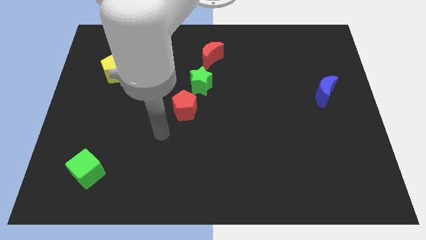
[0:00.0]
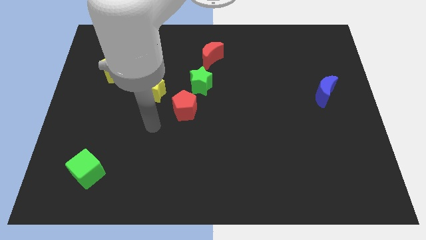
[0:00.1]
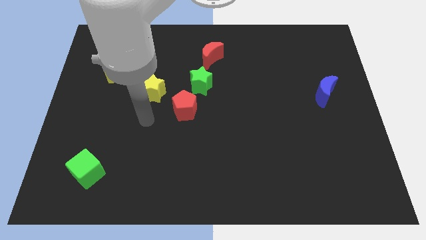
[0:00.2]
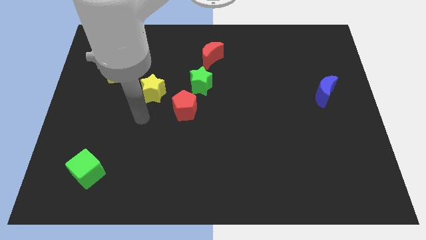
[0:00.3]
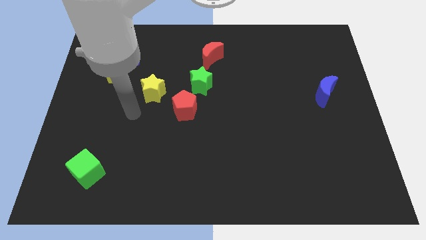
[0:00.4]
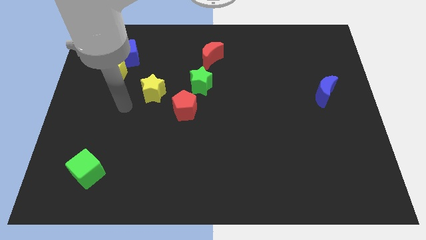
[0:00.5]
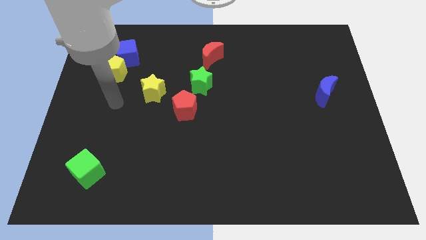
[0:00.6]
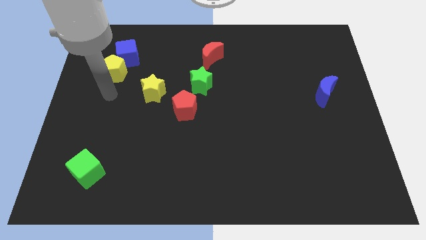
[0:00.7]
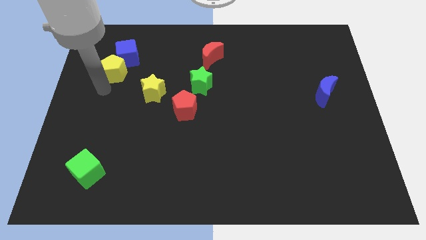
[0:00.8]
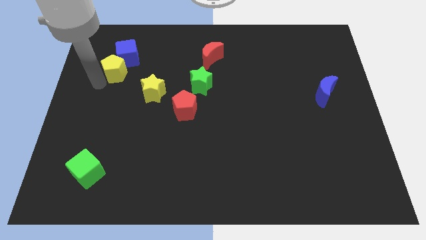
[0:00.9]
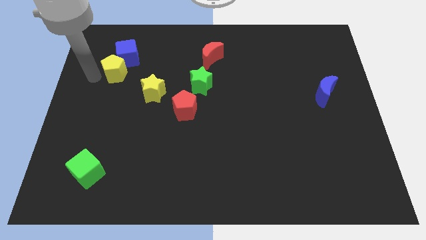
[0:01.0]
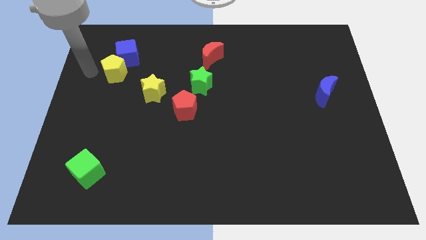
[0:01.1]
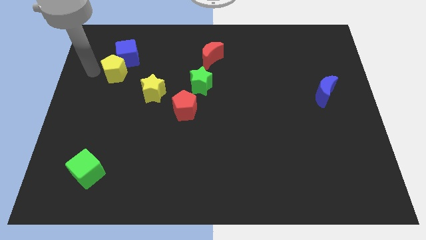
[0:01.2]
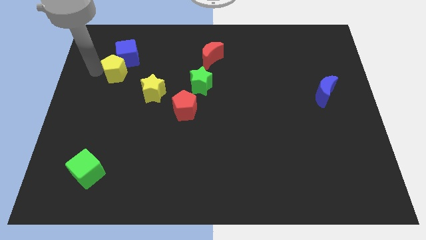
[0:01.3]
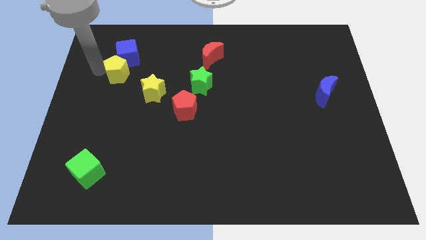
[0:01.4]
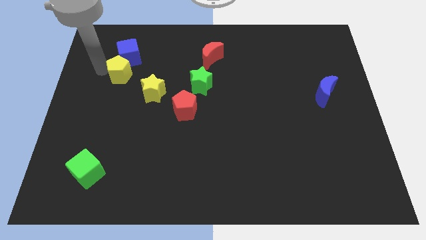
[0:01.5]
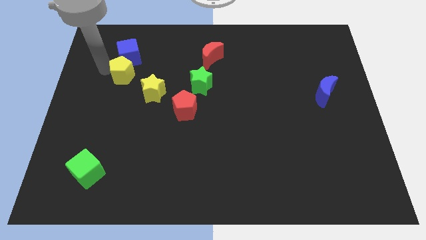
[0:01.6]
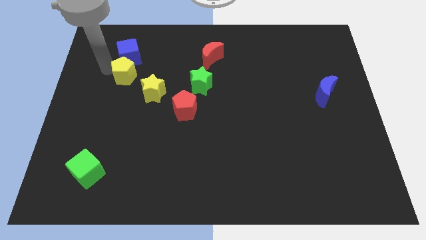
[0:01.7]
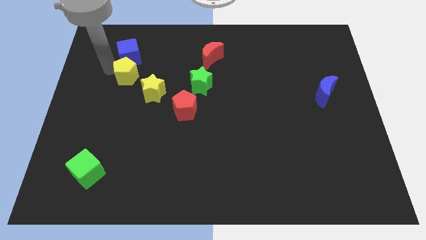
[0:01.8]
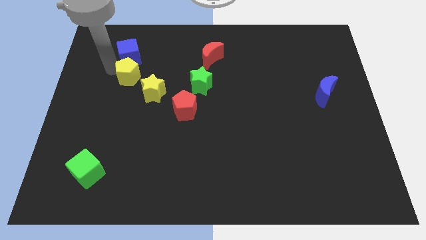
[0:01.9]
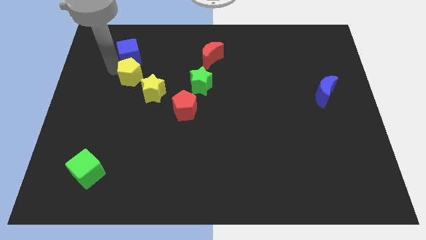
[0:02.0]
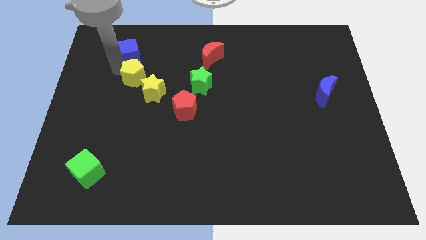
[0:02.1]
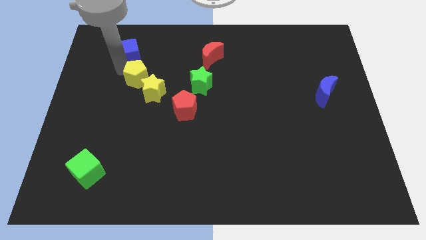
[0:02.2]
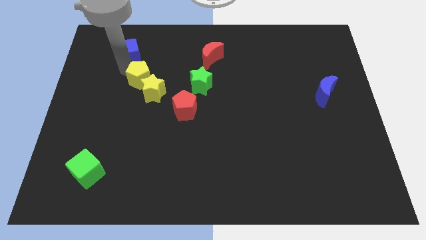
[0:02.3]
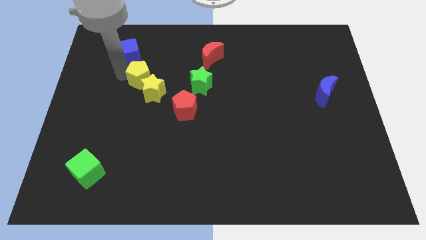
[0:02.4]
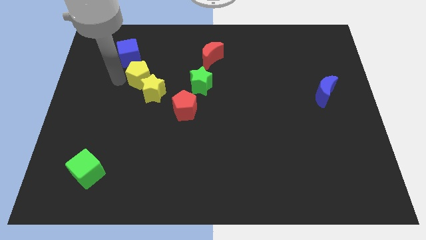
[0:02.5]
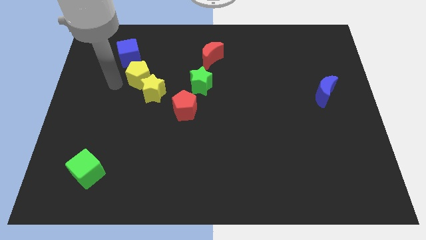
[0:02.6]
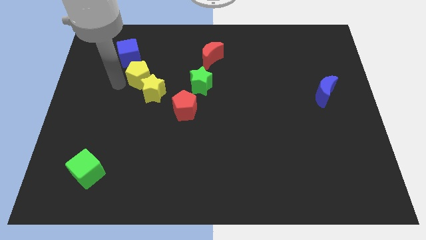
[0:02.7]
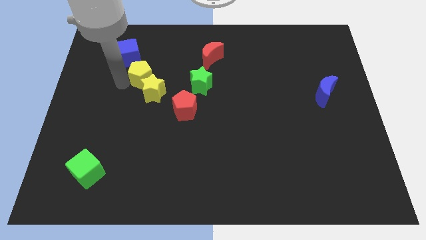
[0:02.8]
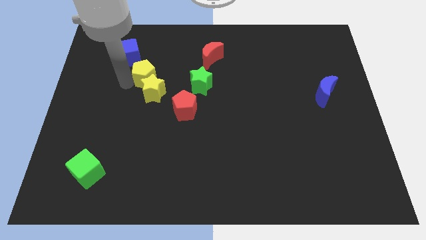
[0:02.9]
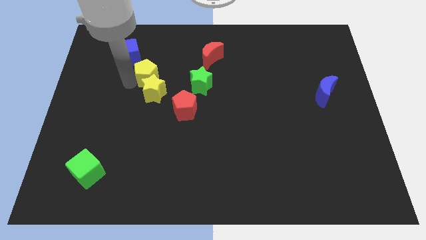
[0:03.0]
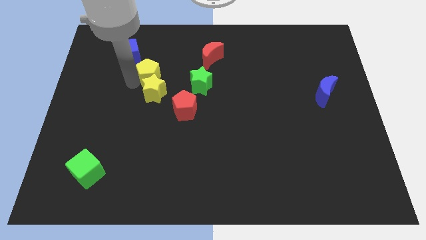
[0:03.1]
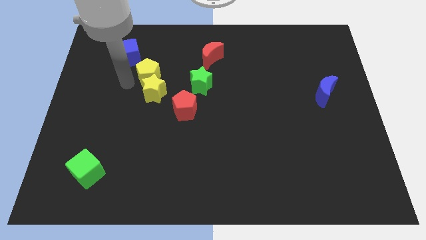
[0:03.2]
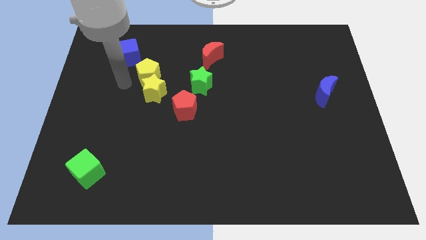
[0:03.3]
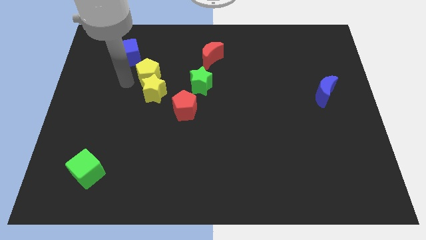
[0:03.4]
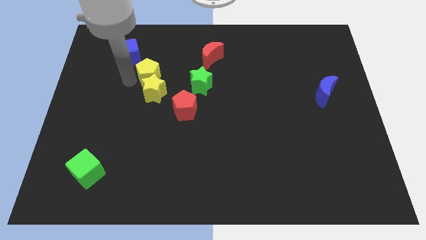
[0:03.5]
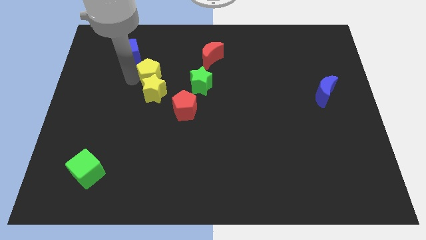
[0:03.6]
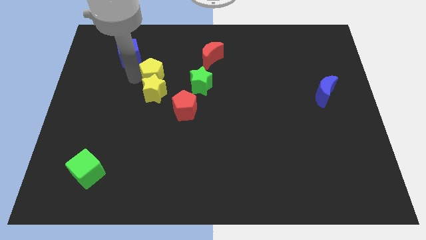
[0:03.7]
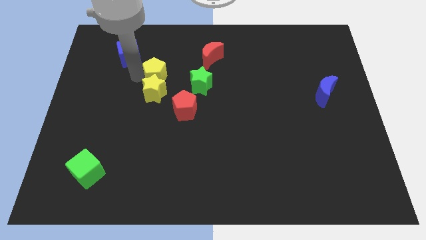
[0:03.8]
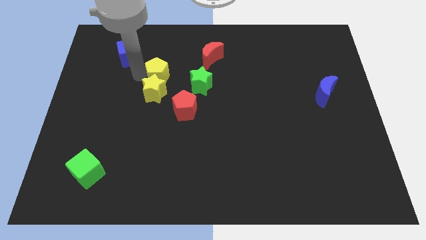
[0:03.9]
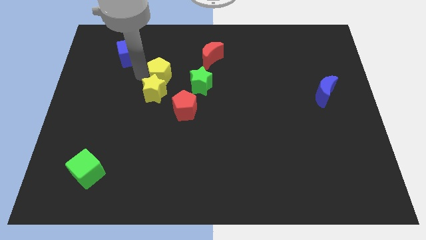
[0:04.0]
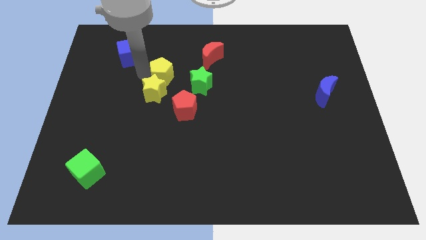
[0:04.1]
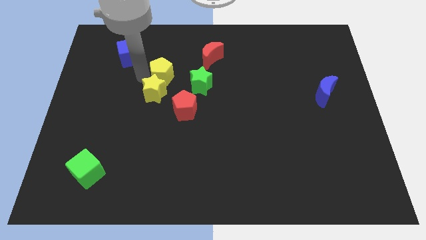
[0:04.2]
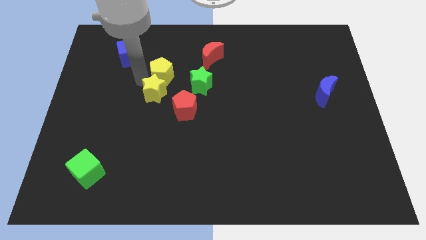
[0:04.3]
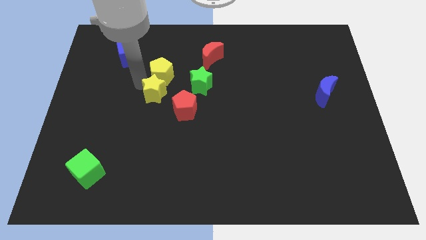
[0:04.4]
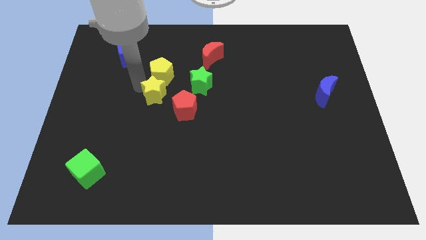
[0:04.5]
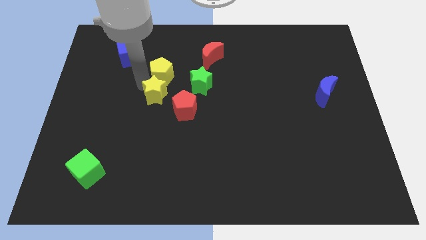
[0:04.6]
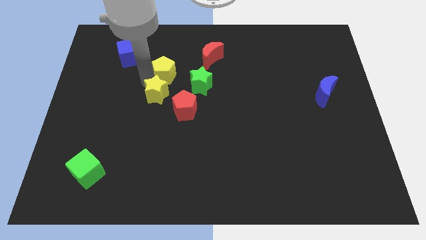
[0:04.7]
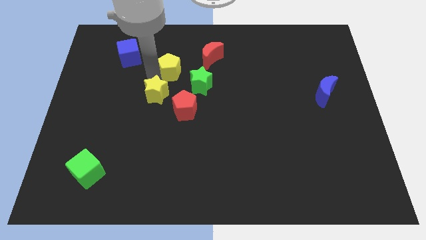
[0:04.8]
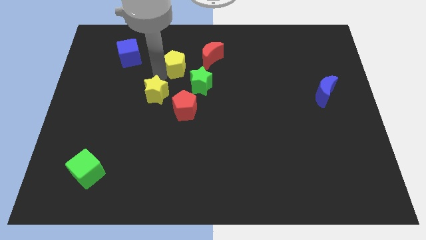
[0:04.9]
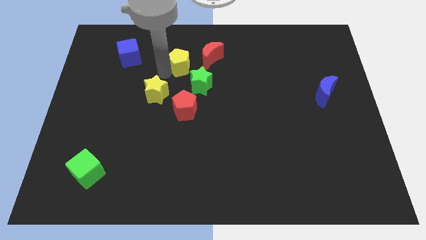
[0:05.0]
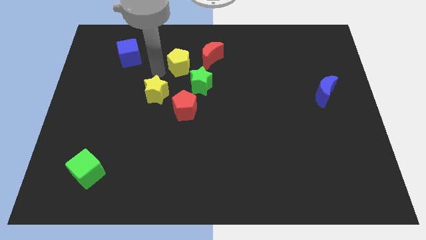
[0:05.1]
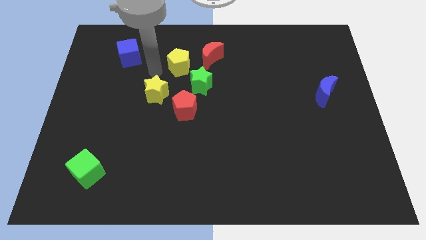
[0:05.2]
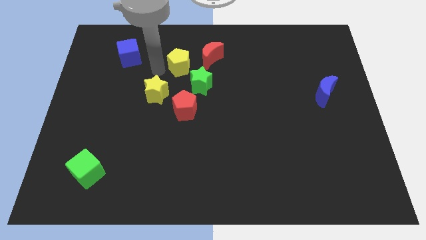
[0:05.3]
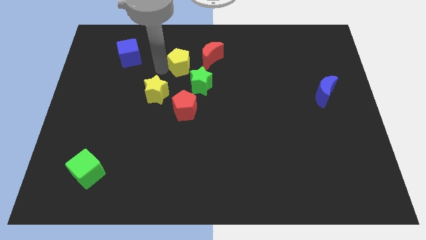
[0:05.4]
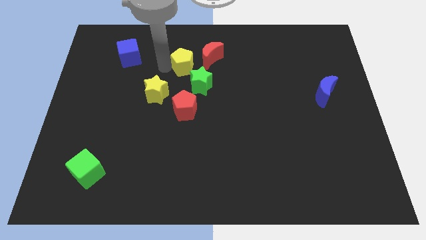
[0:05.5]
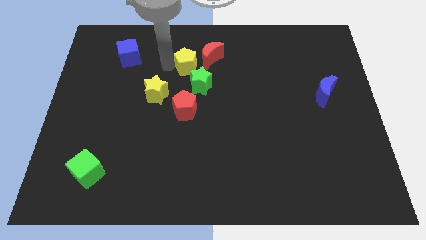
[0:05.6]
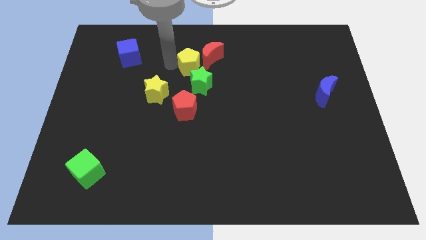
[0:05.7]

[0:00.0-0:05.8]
slide the yellow pentagon to the red moon
